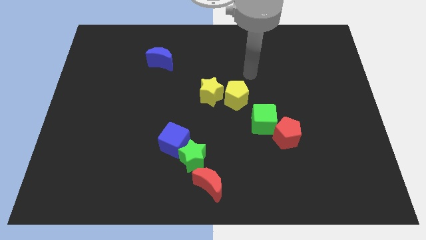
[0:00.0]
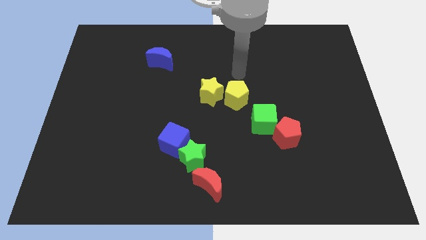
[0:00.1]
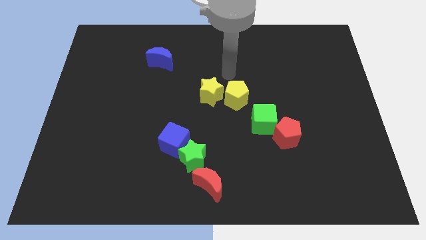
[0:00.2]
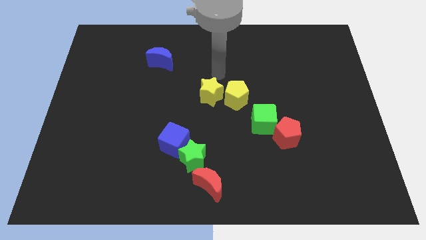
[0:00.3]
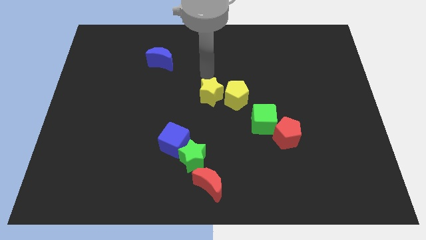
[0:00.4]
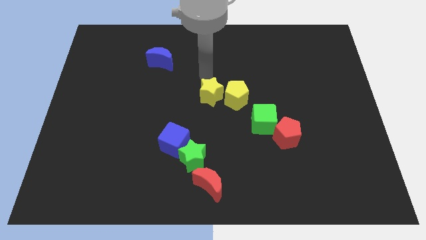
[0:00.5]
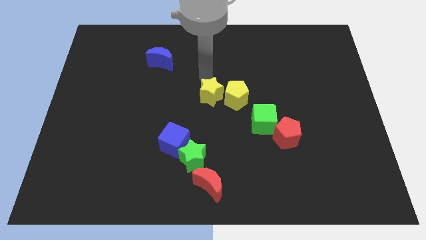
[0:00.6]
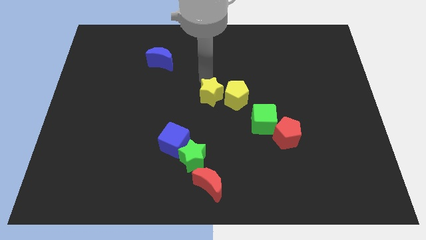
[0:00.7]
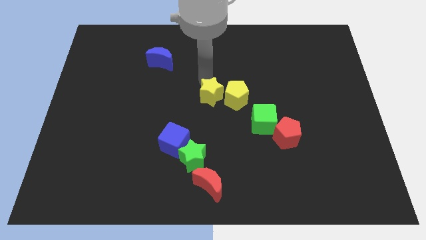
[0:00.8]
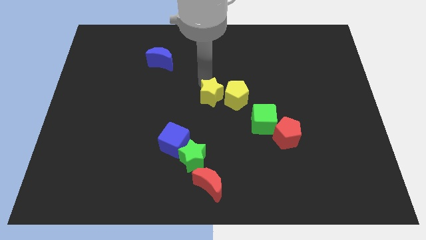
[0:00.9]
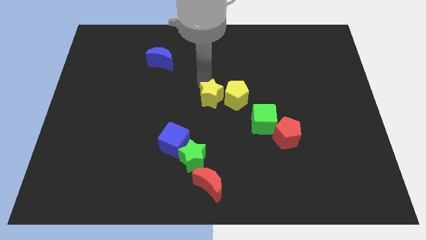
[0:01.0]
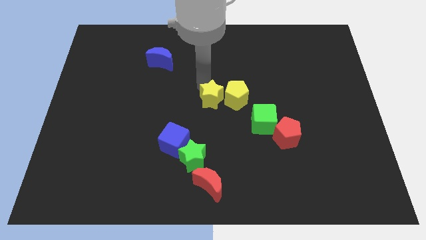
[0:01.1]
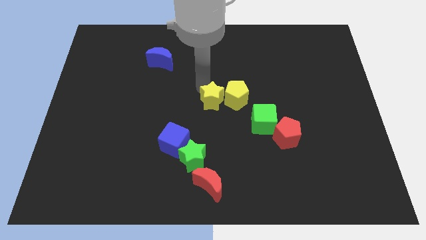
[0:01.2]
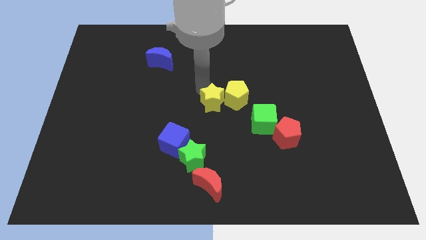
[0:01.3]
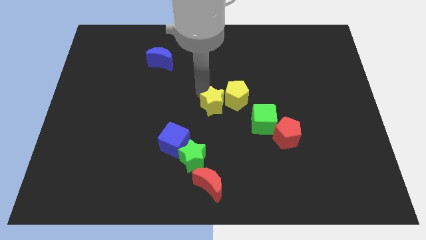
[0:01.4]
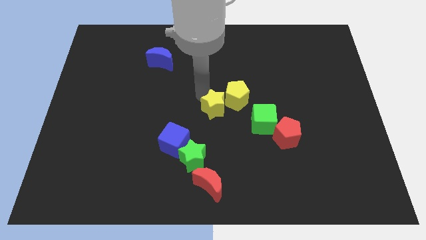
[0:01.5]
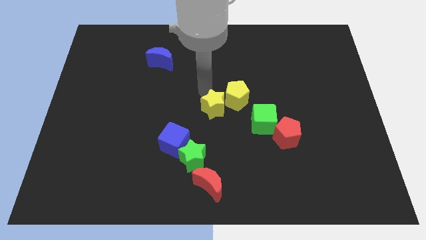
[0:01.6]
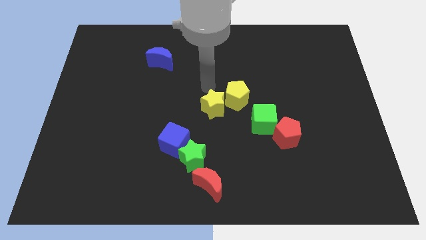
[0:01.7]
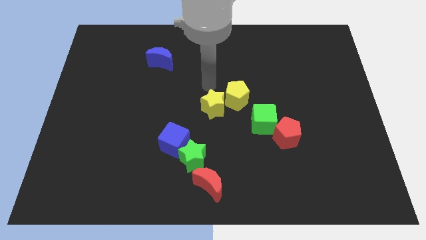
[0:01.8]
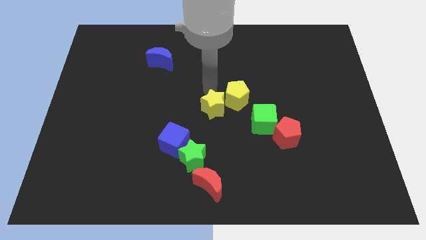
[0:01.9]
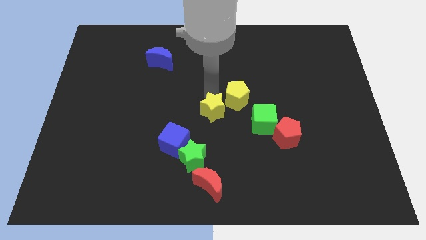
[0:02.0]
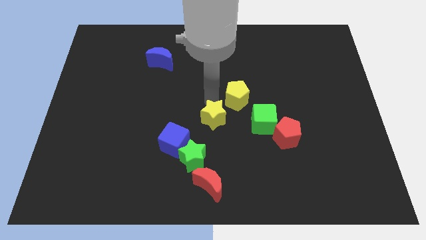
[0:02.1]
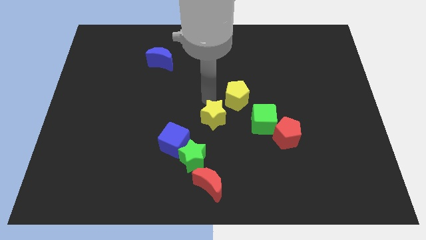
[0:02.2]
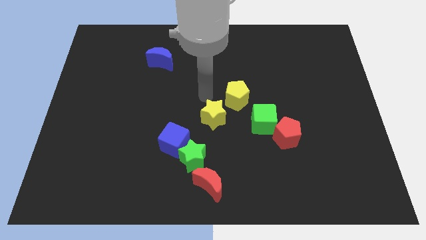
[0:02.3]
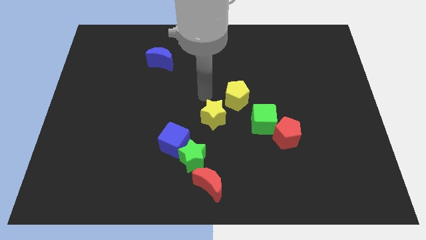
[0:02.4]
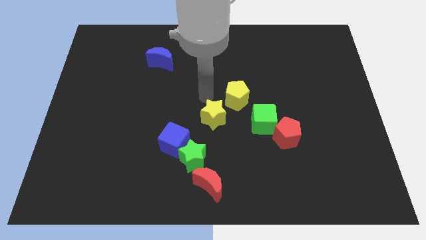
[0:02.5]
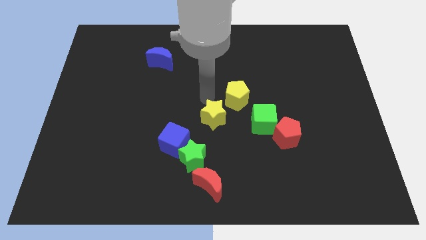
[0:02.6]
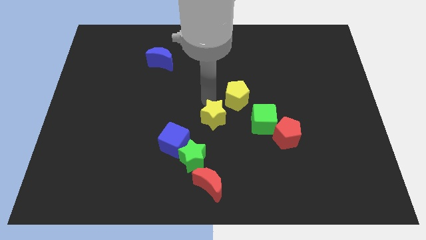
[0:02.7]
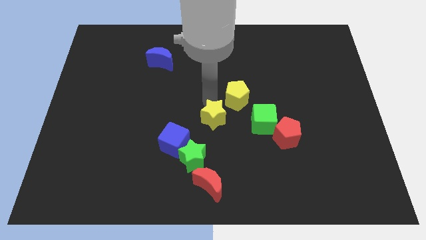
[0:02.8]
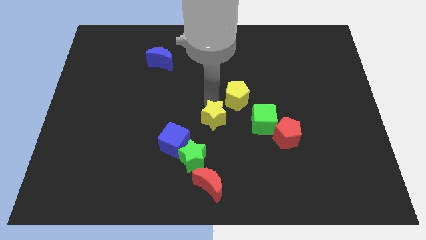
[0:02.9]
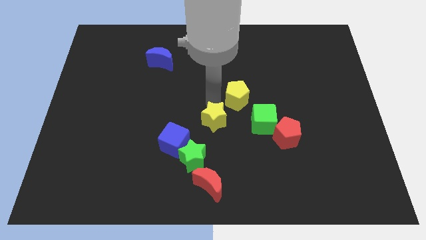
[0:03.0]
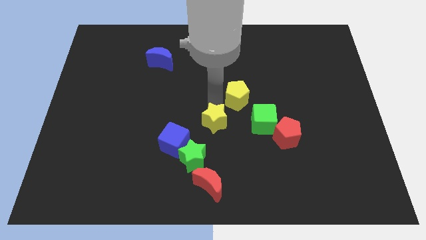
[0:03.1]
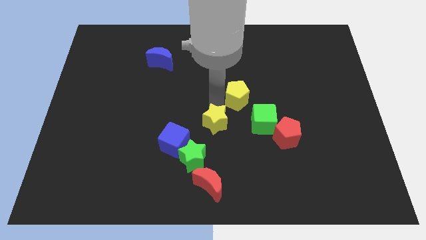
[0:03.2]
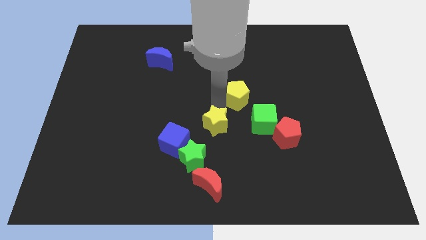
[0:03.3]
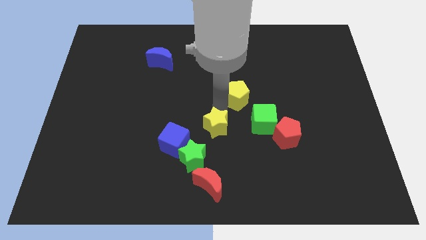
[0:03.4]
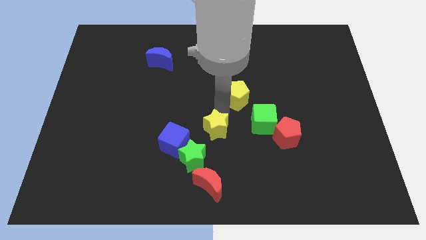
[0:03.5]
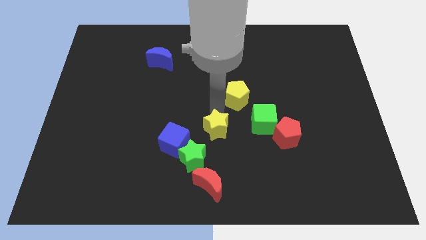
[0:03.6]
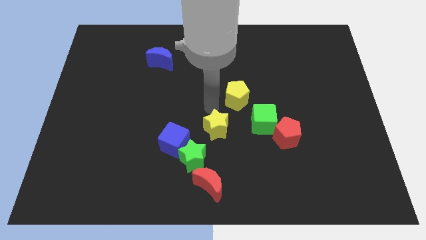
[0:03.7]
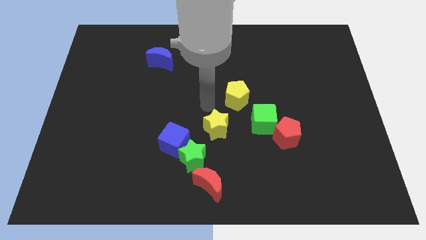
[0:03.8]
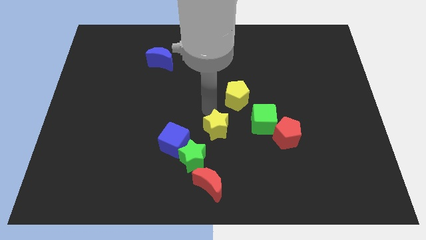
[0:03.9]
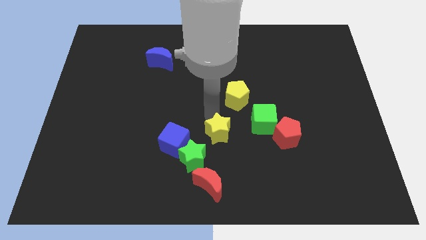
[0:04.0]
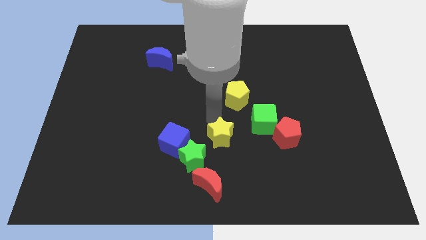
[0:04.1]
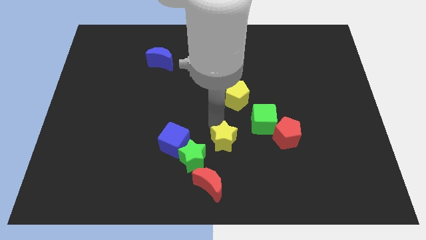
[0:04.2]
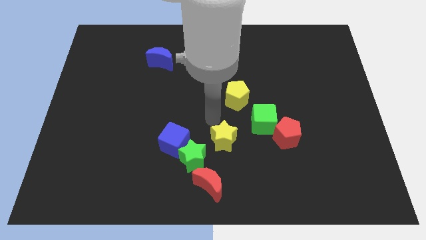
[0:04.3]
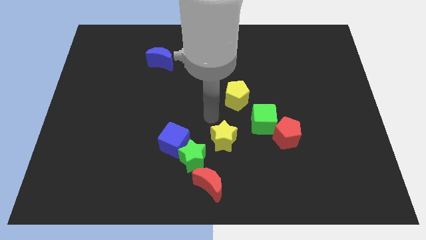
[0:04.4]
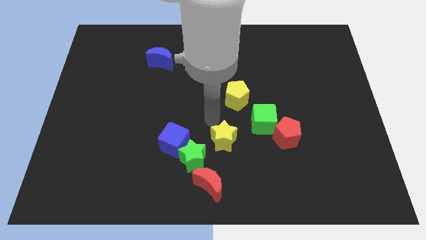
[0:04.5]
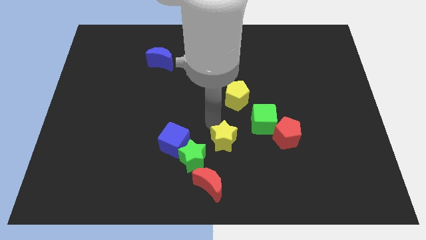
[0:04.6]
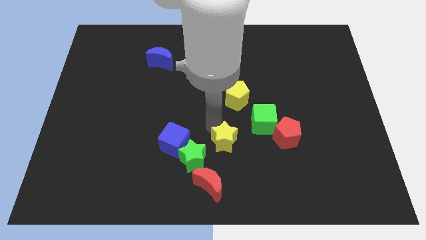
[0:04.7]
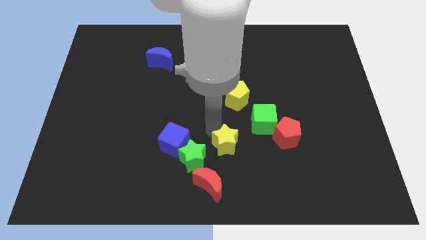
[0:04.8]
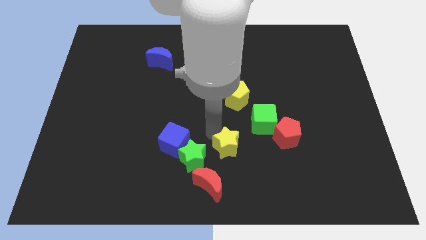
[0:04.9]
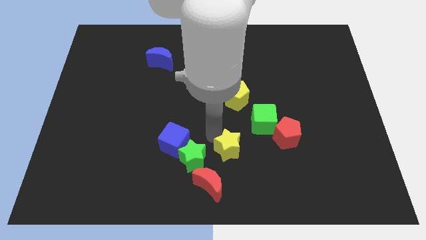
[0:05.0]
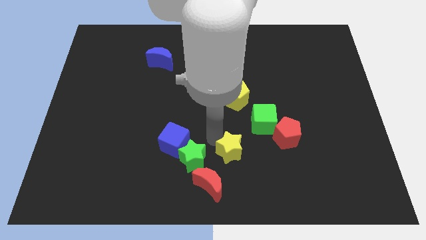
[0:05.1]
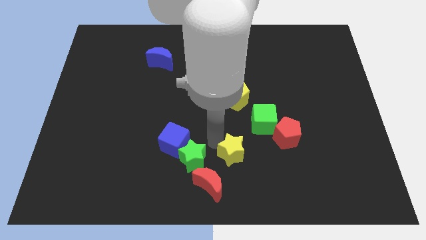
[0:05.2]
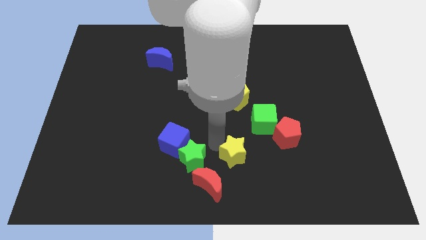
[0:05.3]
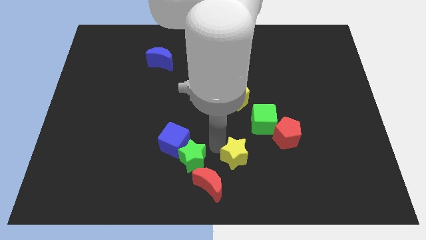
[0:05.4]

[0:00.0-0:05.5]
move the yellow star to the bottom

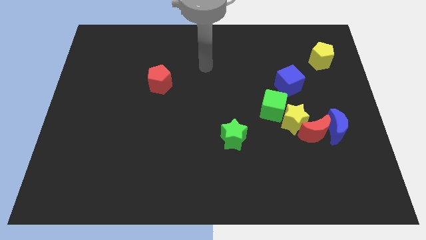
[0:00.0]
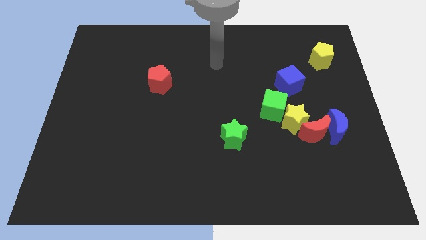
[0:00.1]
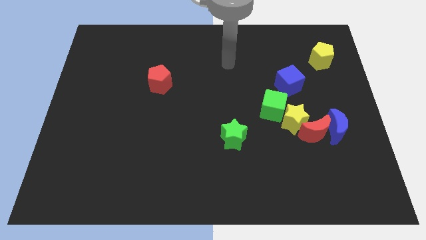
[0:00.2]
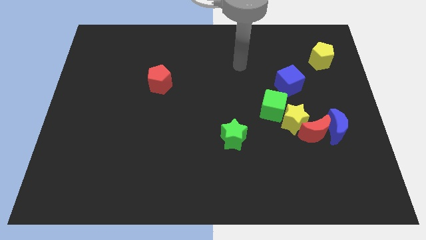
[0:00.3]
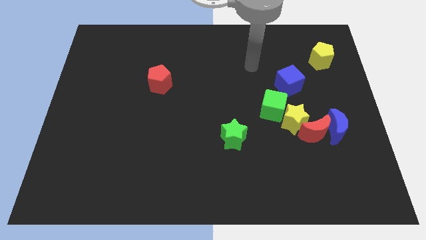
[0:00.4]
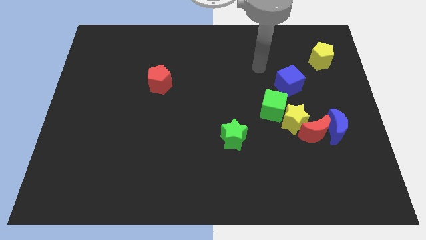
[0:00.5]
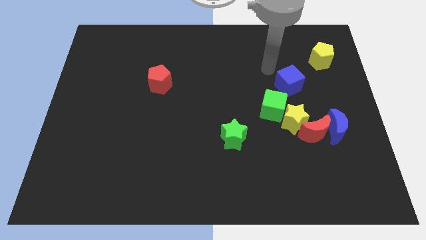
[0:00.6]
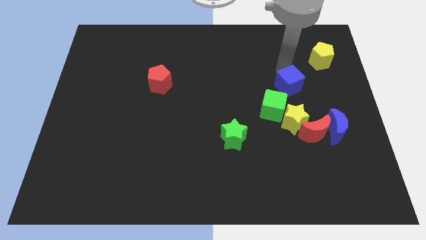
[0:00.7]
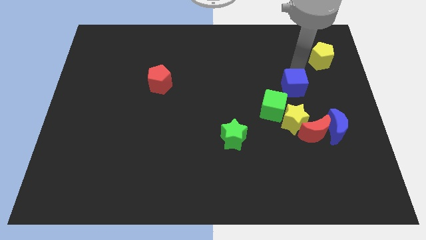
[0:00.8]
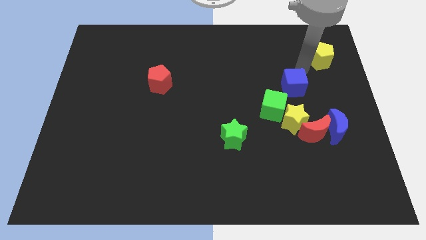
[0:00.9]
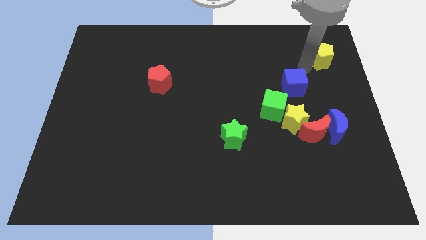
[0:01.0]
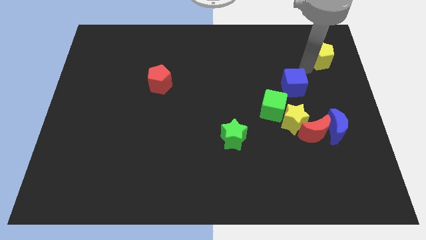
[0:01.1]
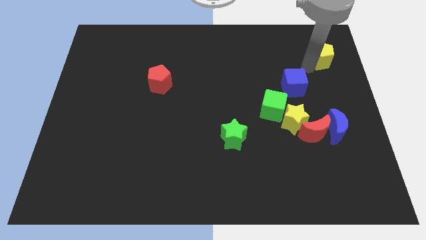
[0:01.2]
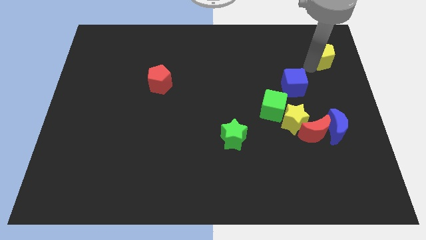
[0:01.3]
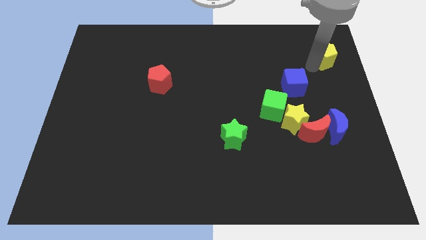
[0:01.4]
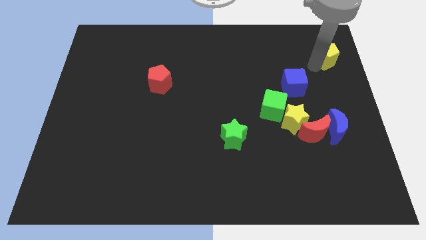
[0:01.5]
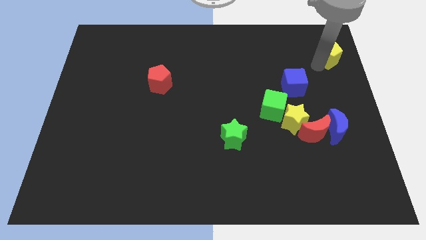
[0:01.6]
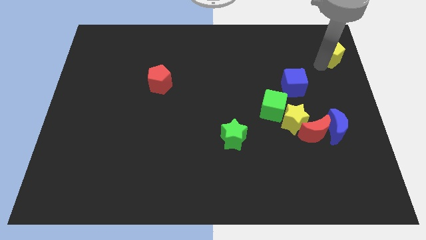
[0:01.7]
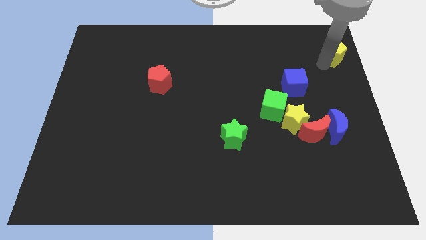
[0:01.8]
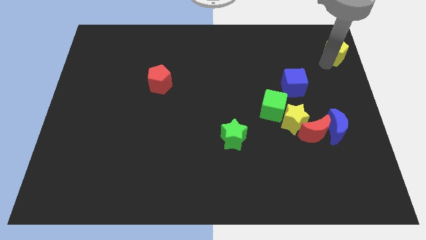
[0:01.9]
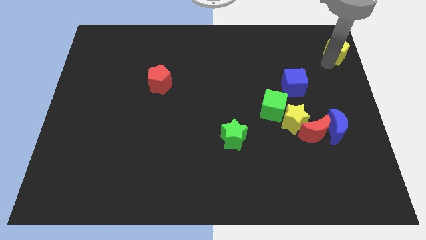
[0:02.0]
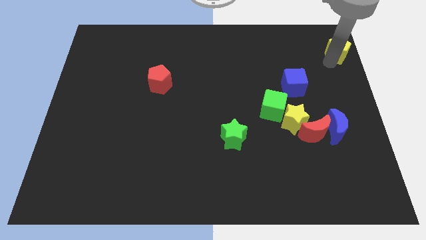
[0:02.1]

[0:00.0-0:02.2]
slide the yellow pentagon to the top right

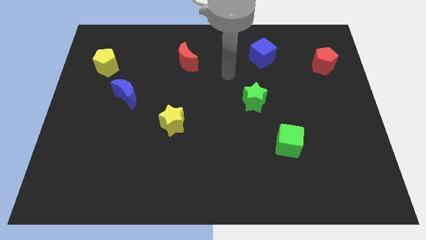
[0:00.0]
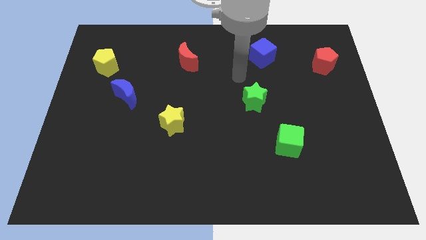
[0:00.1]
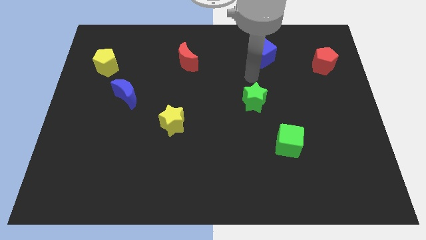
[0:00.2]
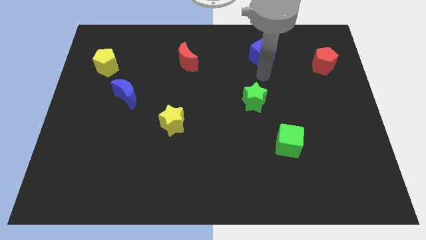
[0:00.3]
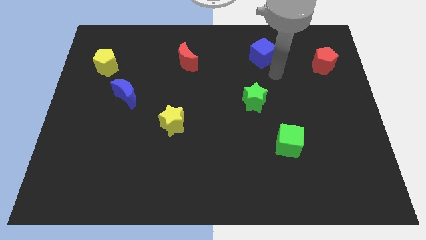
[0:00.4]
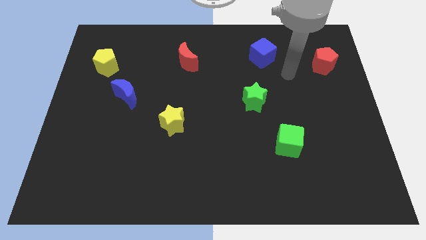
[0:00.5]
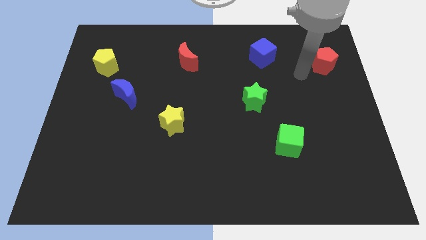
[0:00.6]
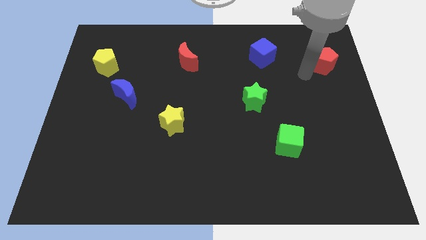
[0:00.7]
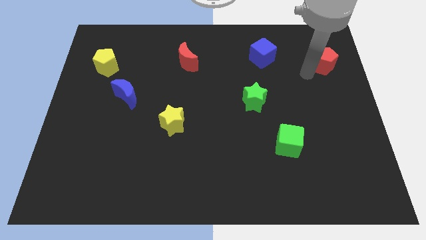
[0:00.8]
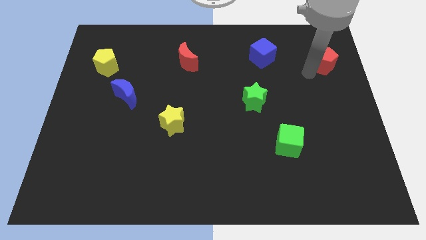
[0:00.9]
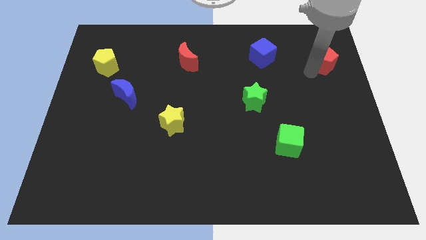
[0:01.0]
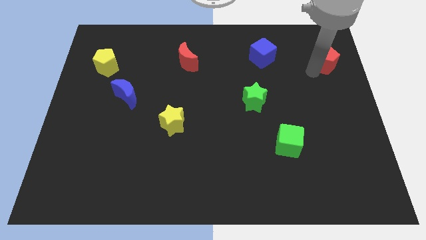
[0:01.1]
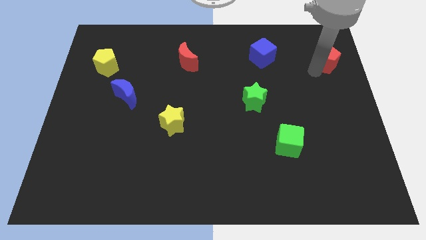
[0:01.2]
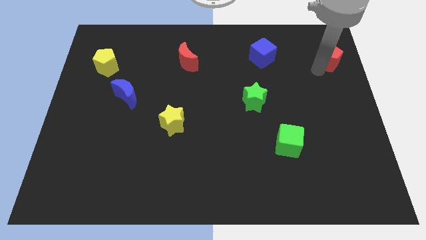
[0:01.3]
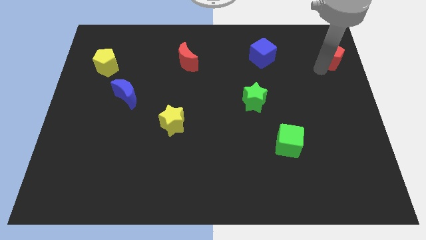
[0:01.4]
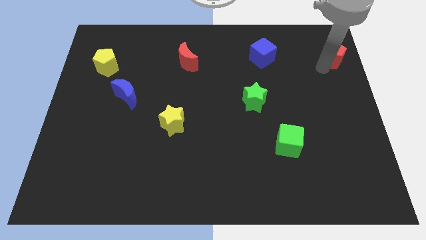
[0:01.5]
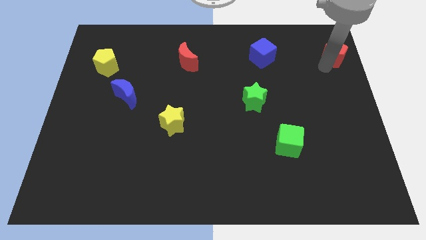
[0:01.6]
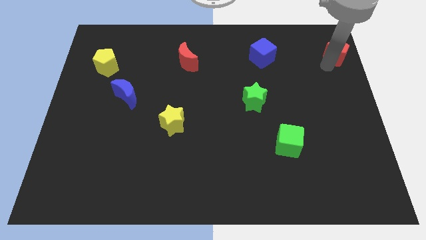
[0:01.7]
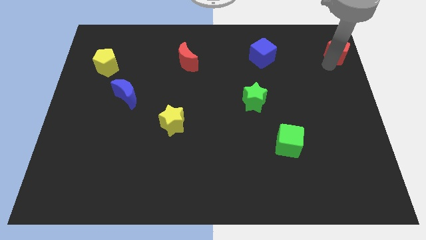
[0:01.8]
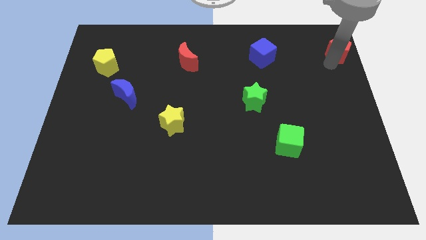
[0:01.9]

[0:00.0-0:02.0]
slide the red pentagon to the upper right corner
